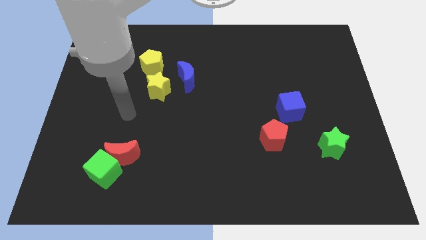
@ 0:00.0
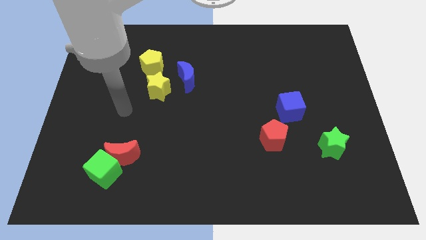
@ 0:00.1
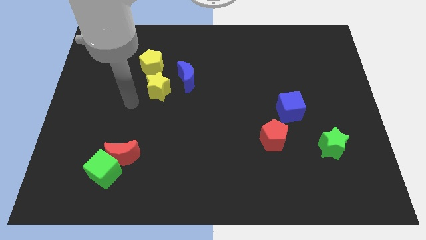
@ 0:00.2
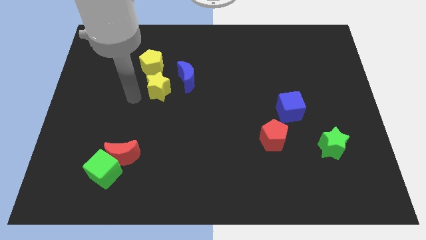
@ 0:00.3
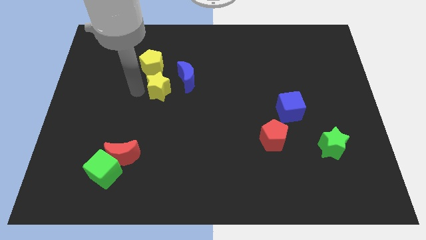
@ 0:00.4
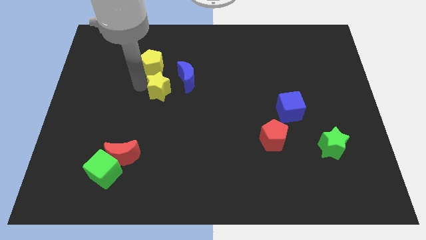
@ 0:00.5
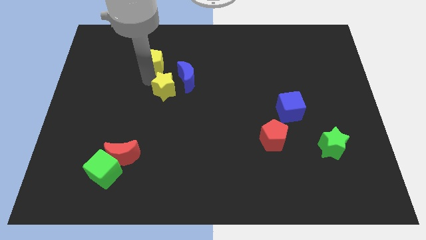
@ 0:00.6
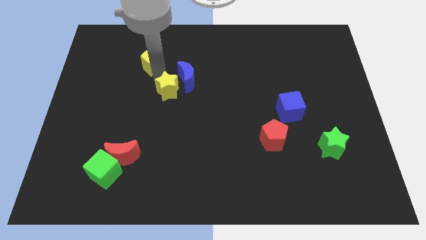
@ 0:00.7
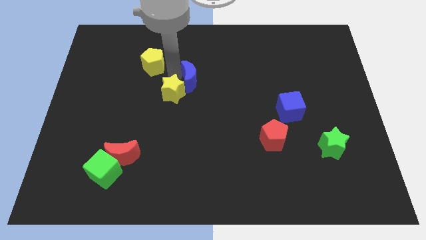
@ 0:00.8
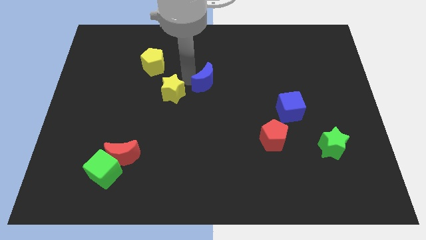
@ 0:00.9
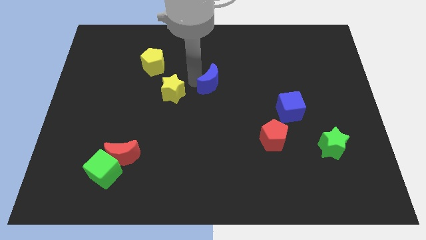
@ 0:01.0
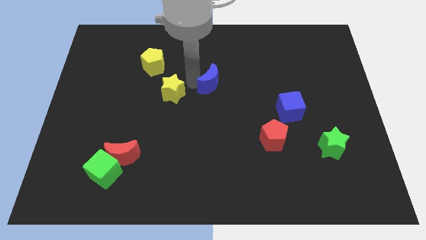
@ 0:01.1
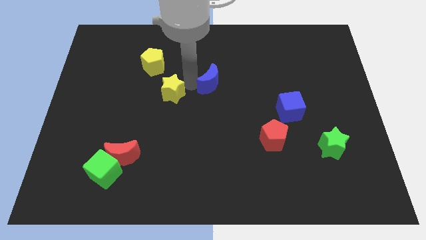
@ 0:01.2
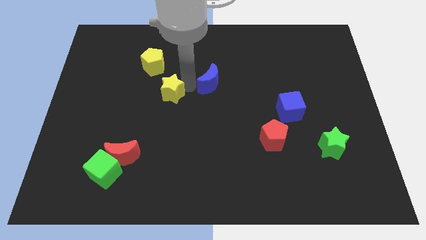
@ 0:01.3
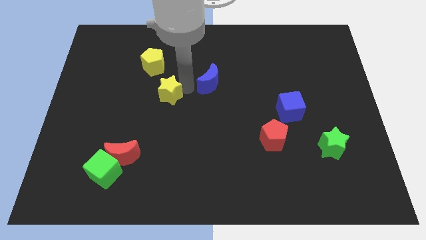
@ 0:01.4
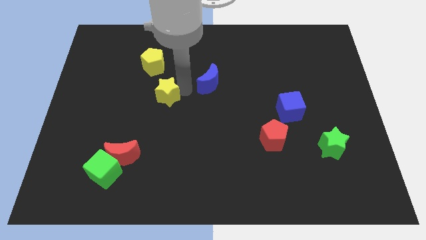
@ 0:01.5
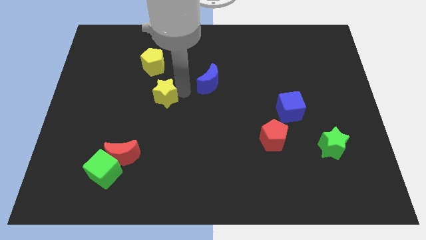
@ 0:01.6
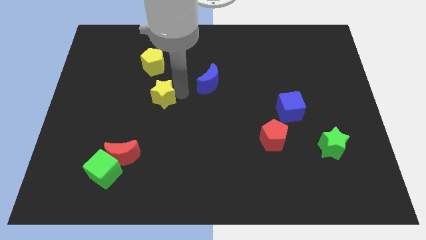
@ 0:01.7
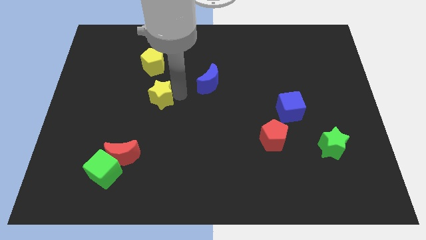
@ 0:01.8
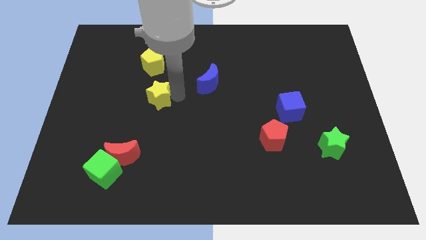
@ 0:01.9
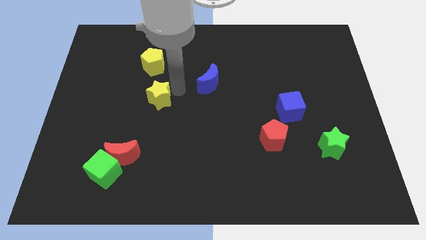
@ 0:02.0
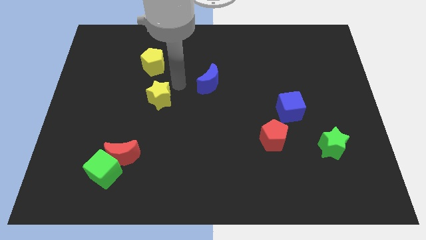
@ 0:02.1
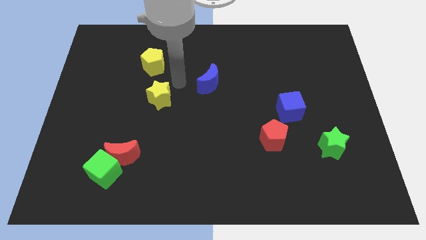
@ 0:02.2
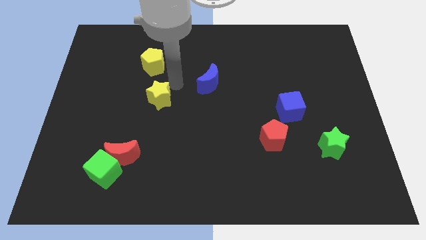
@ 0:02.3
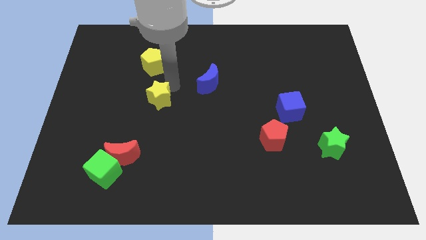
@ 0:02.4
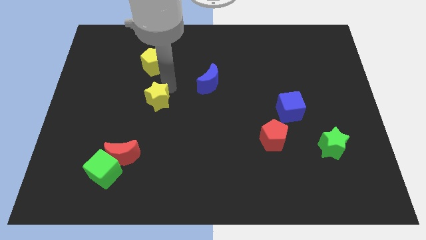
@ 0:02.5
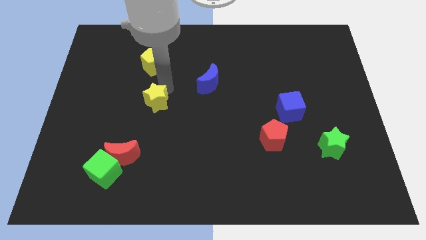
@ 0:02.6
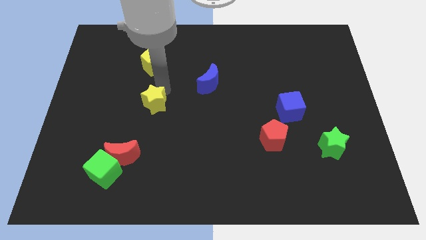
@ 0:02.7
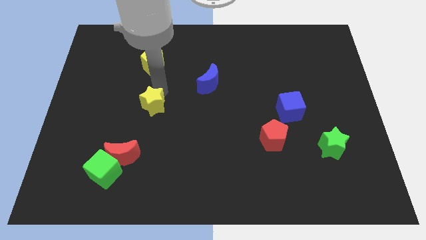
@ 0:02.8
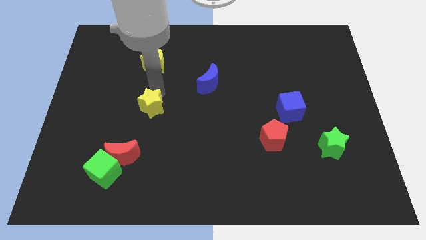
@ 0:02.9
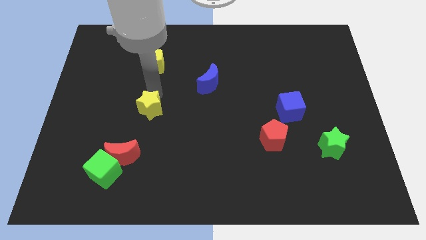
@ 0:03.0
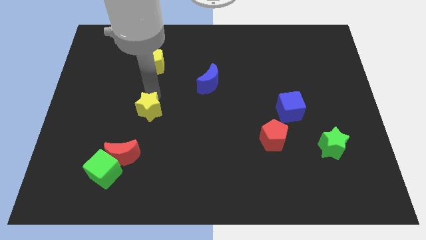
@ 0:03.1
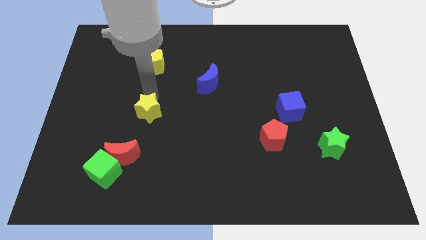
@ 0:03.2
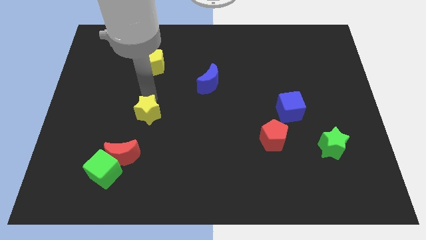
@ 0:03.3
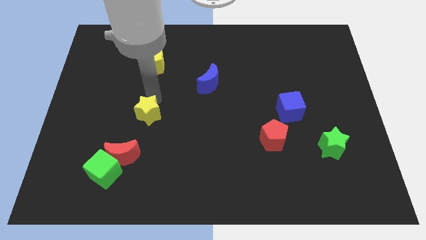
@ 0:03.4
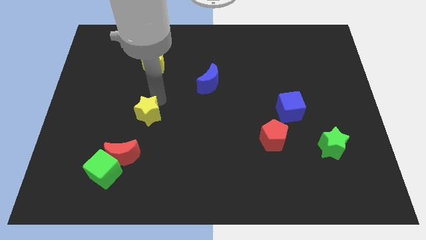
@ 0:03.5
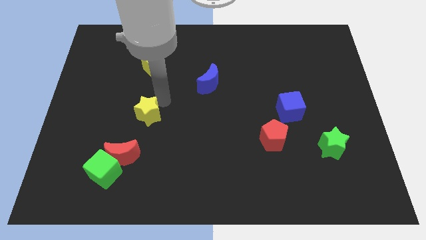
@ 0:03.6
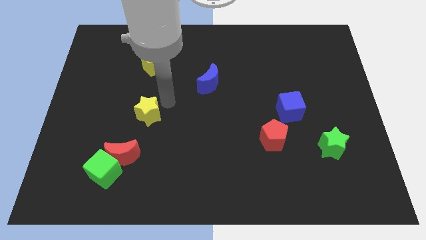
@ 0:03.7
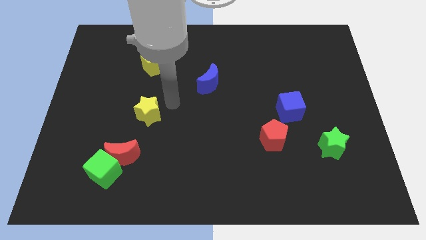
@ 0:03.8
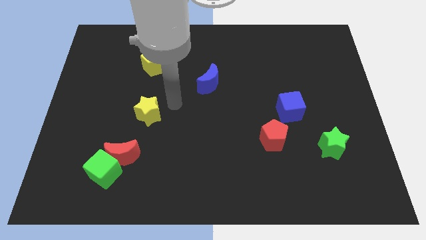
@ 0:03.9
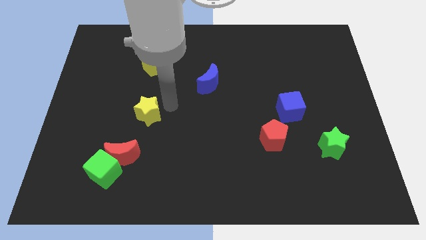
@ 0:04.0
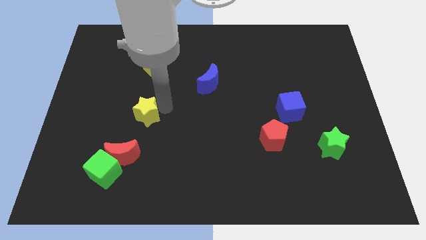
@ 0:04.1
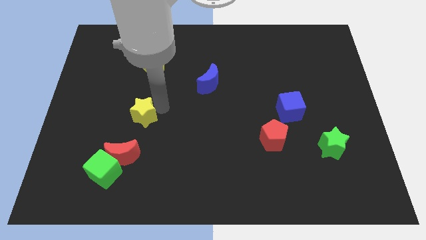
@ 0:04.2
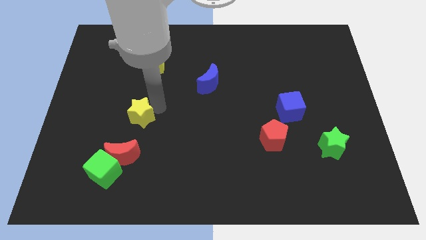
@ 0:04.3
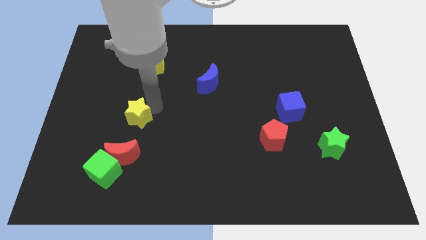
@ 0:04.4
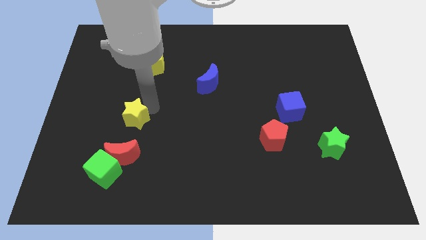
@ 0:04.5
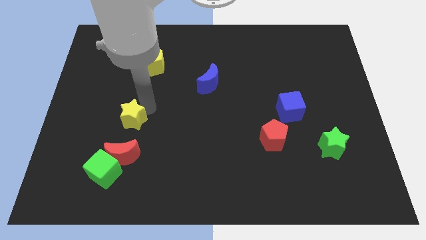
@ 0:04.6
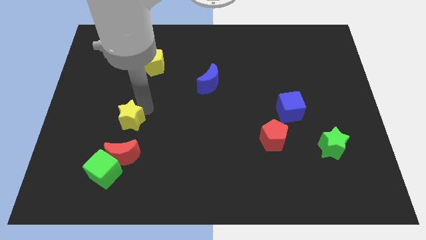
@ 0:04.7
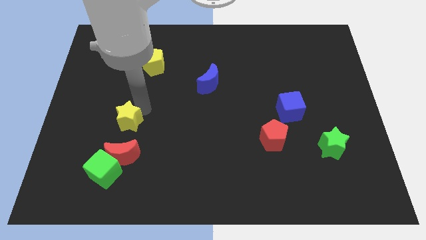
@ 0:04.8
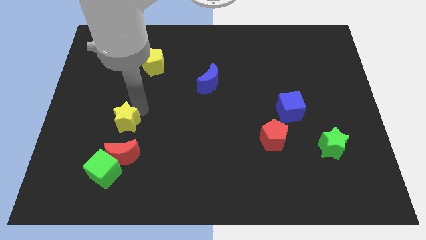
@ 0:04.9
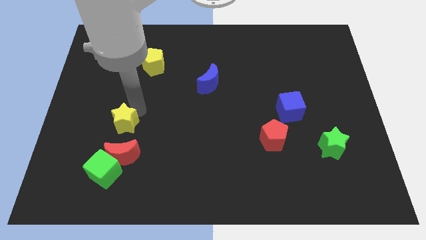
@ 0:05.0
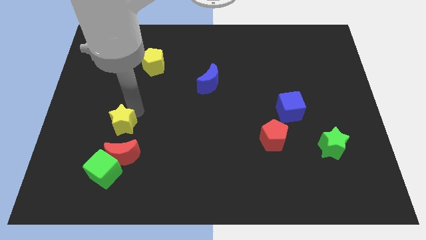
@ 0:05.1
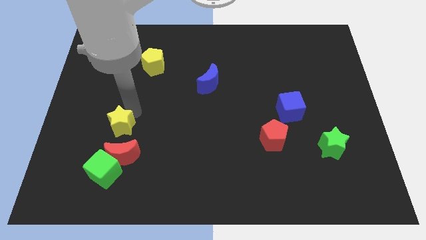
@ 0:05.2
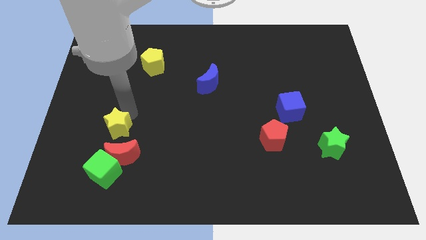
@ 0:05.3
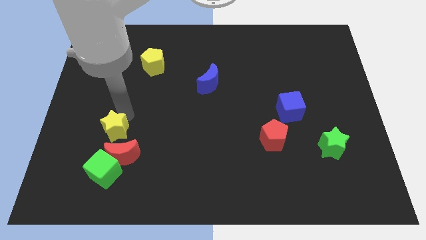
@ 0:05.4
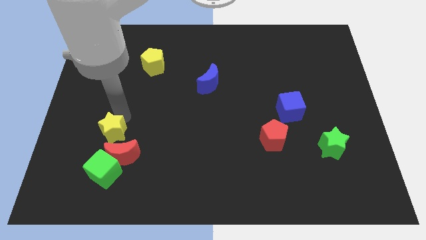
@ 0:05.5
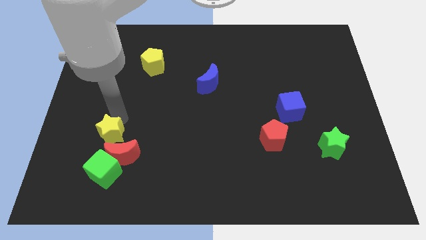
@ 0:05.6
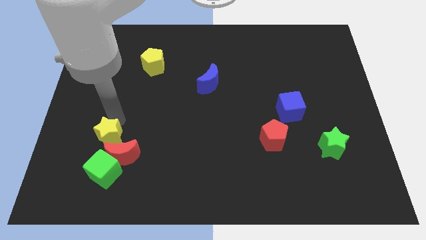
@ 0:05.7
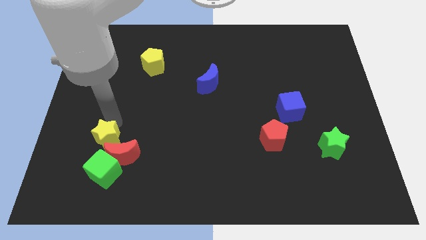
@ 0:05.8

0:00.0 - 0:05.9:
put the yellow star to the red moon

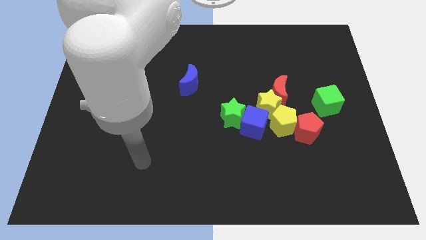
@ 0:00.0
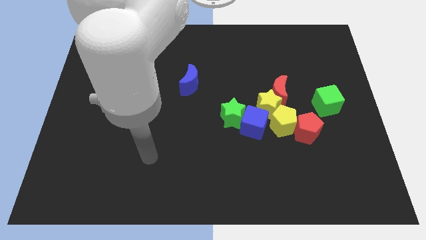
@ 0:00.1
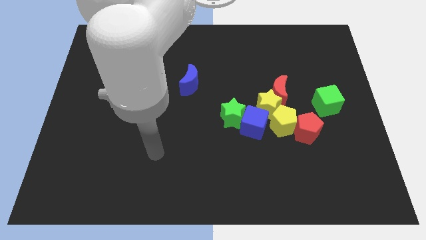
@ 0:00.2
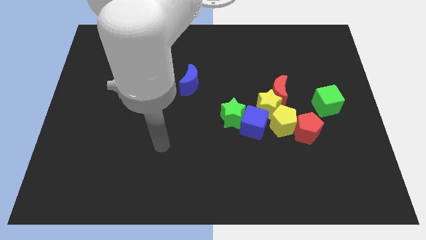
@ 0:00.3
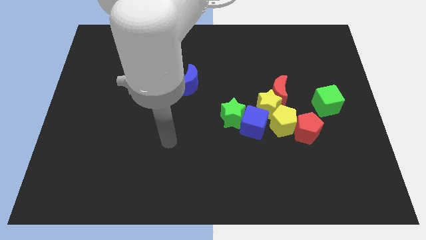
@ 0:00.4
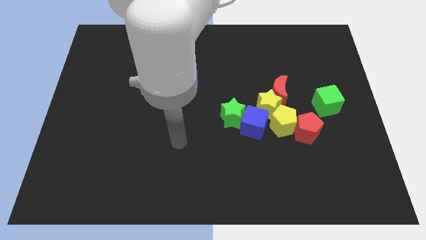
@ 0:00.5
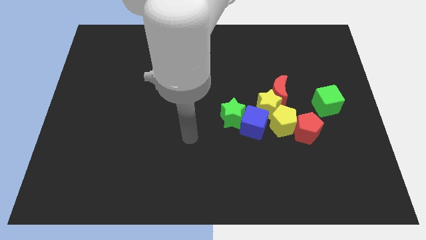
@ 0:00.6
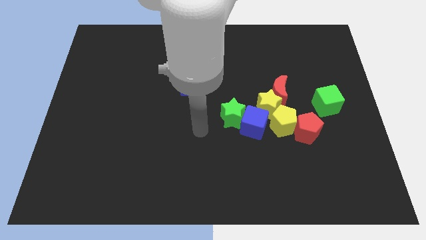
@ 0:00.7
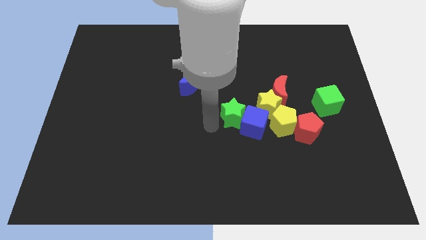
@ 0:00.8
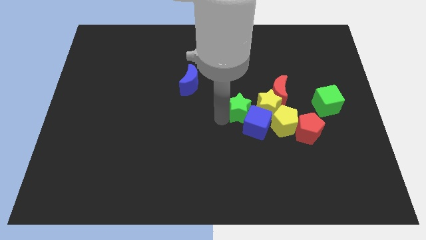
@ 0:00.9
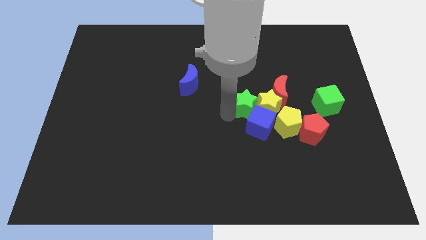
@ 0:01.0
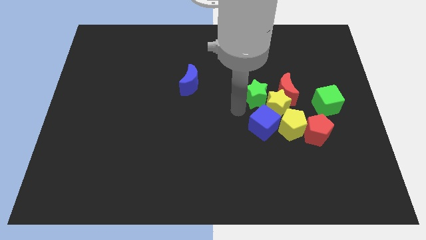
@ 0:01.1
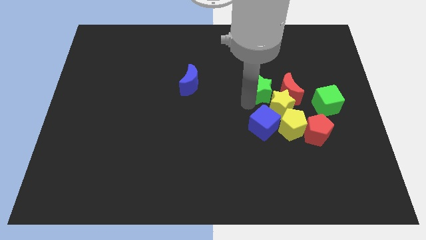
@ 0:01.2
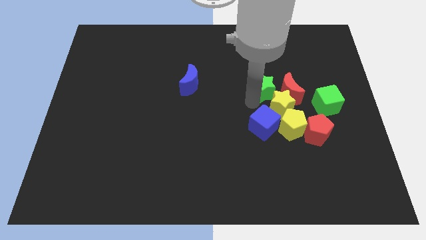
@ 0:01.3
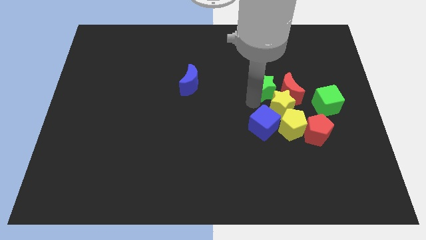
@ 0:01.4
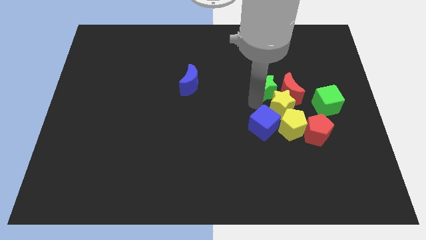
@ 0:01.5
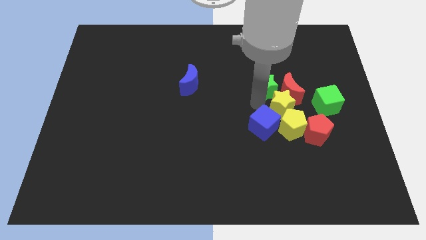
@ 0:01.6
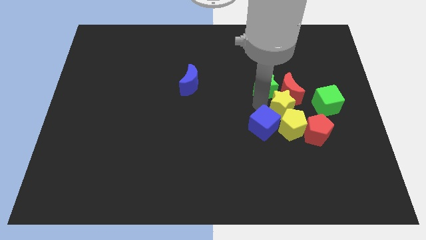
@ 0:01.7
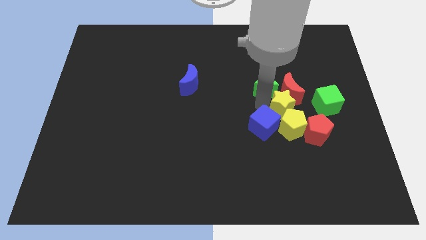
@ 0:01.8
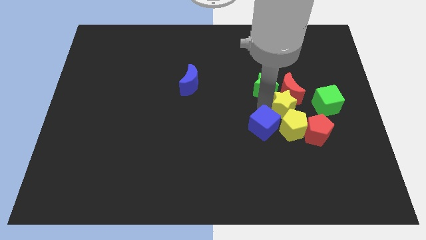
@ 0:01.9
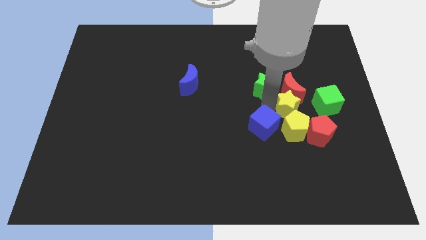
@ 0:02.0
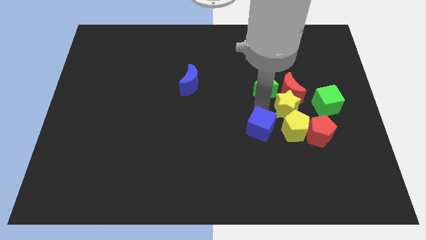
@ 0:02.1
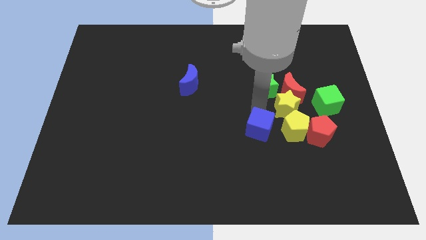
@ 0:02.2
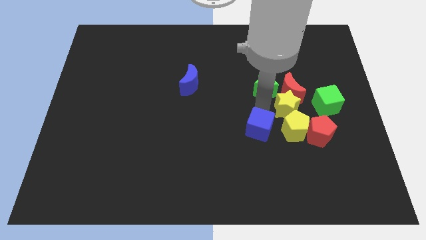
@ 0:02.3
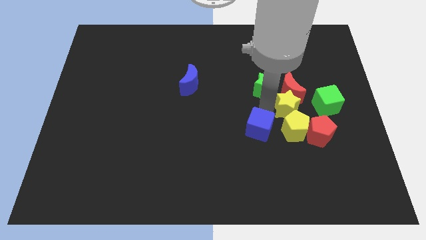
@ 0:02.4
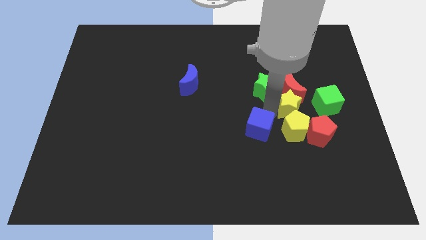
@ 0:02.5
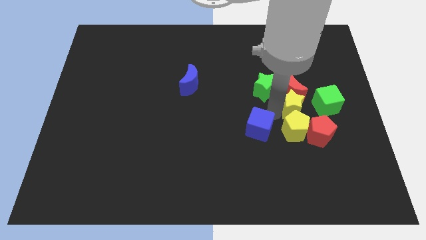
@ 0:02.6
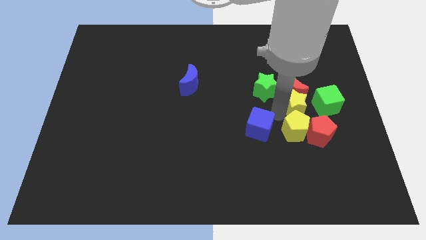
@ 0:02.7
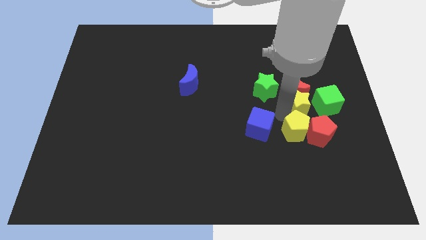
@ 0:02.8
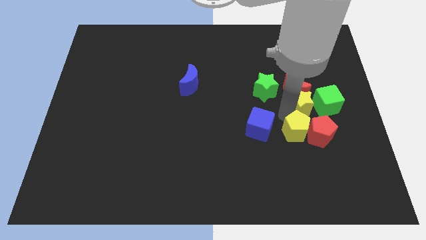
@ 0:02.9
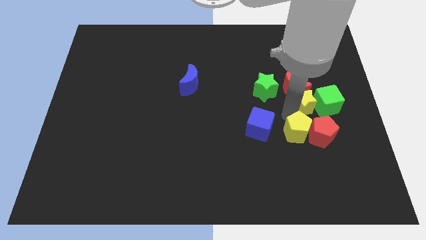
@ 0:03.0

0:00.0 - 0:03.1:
push the yellow star to the green cube
